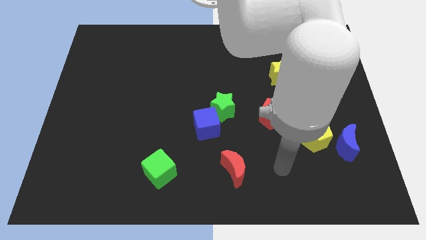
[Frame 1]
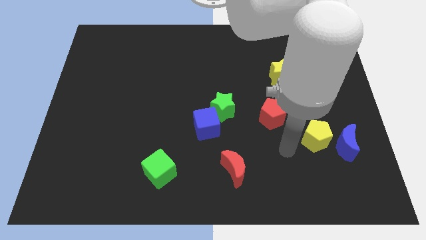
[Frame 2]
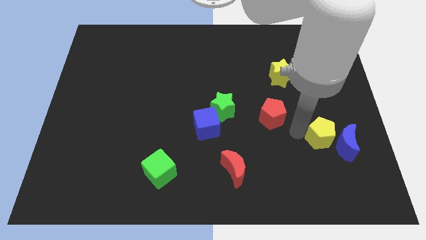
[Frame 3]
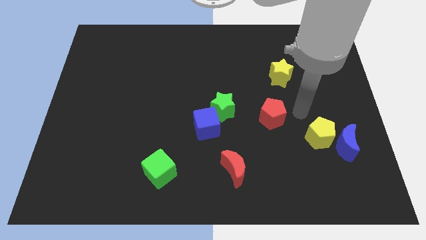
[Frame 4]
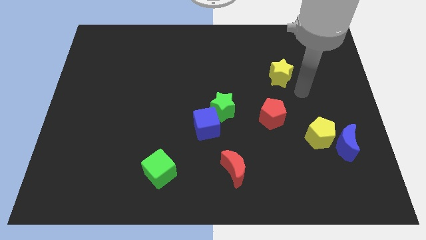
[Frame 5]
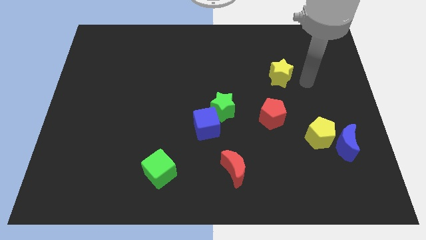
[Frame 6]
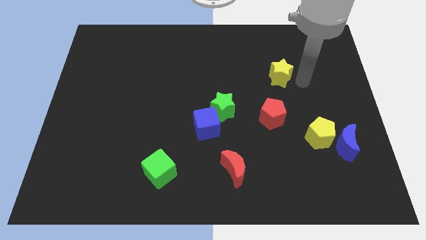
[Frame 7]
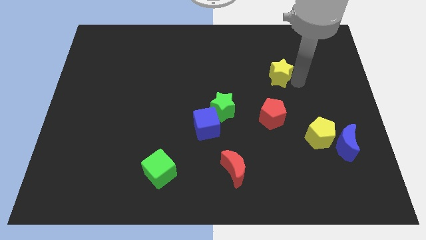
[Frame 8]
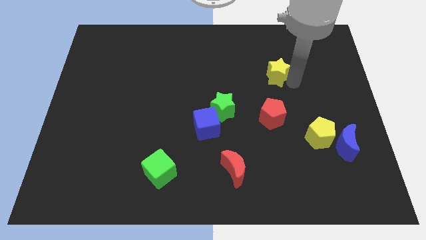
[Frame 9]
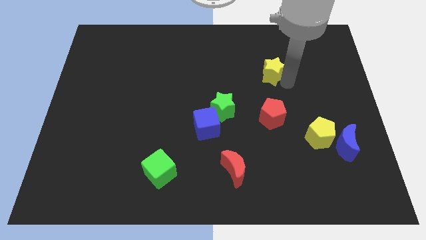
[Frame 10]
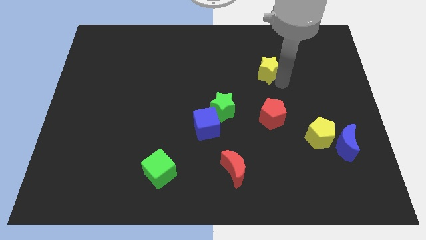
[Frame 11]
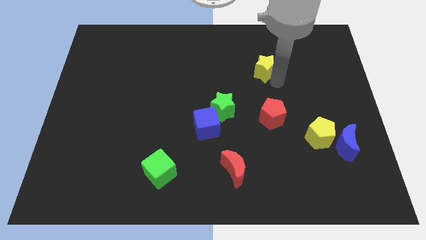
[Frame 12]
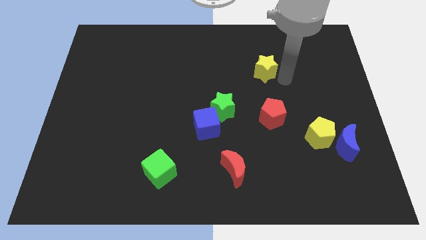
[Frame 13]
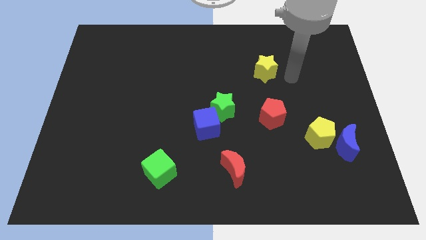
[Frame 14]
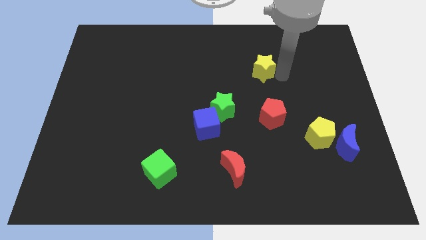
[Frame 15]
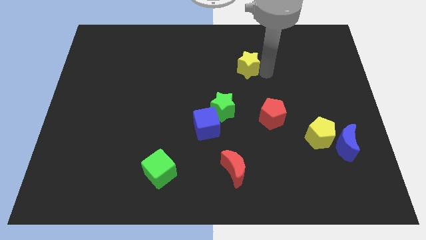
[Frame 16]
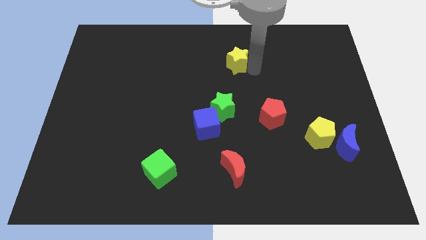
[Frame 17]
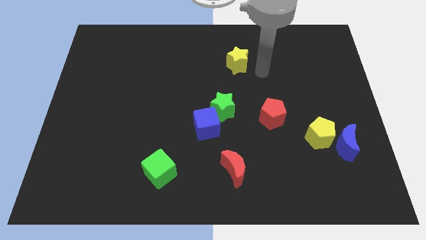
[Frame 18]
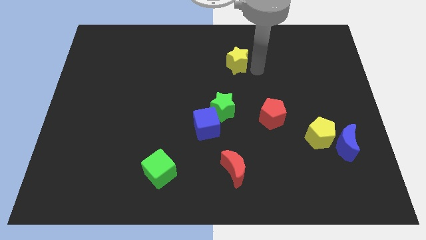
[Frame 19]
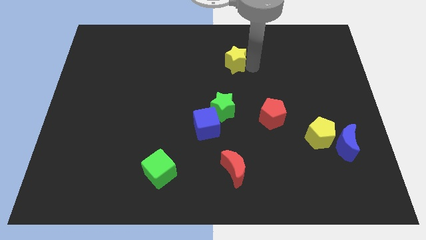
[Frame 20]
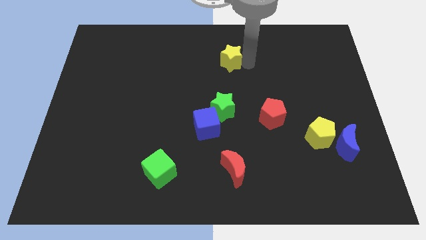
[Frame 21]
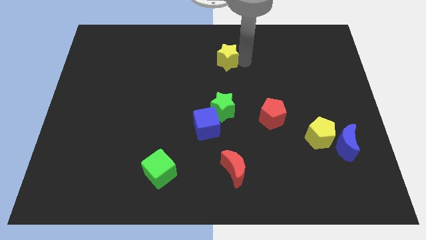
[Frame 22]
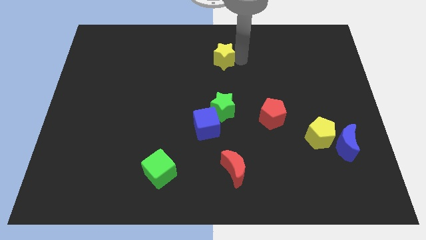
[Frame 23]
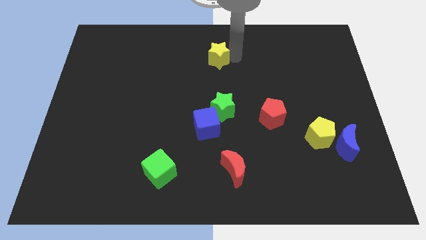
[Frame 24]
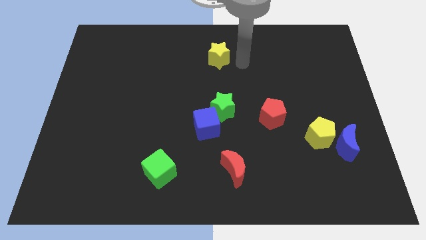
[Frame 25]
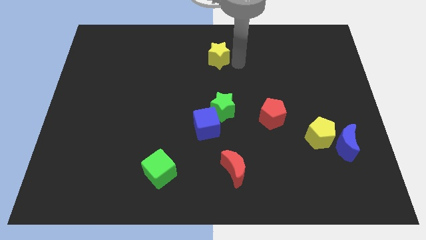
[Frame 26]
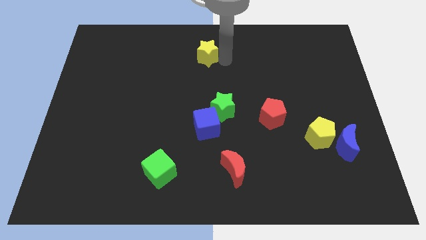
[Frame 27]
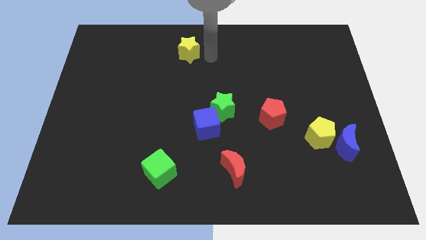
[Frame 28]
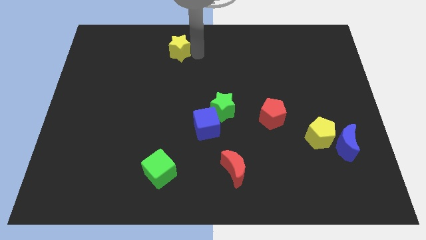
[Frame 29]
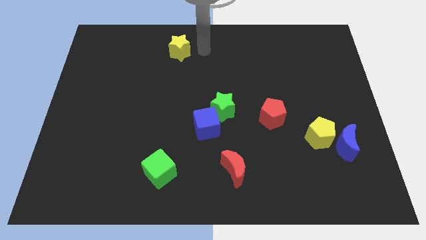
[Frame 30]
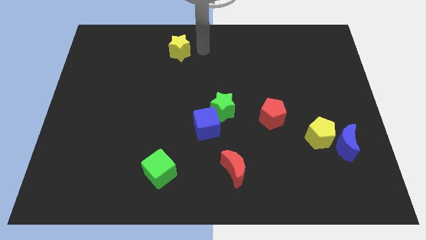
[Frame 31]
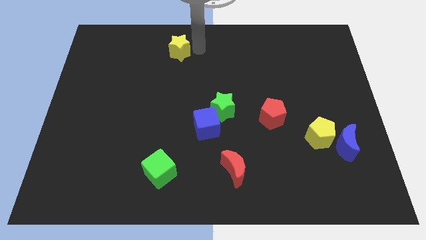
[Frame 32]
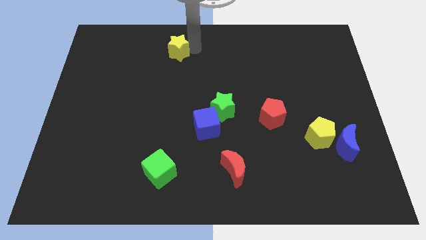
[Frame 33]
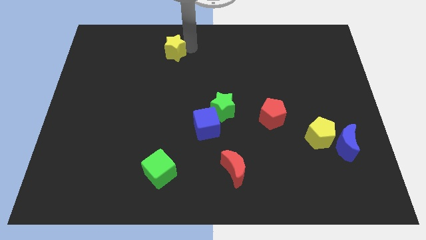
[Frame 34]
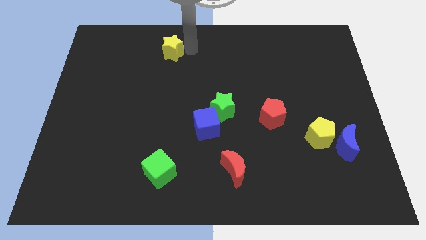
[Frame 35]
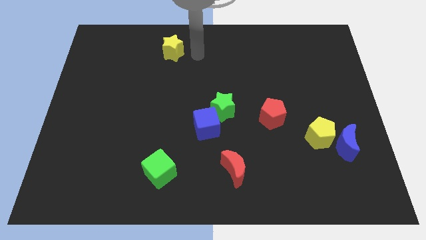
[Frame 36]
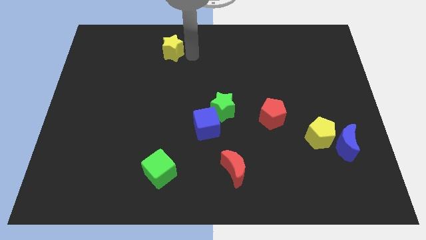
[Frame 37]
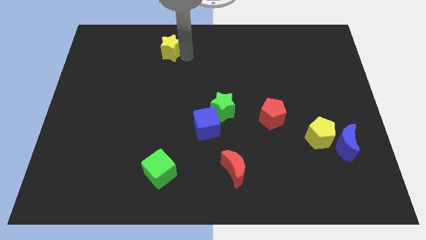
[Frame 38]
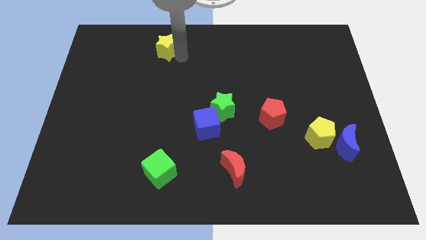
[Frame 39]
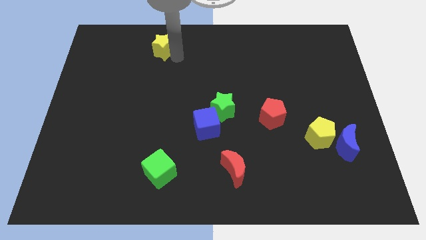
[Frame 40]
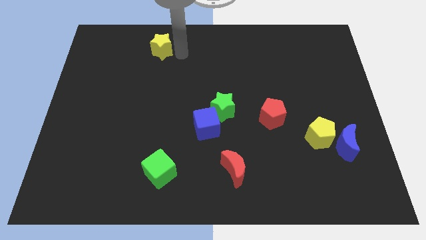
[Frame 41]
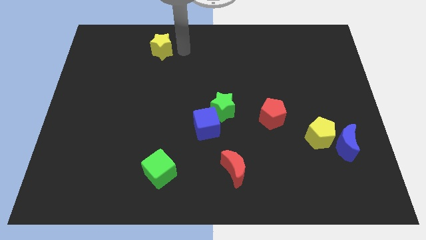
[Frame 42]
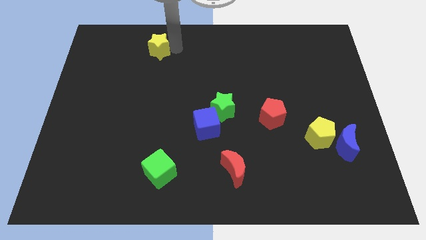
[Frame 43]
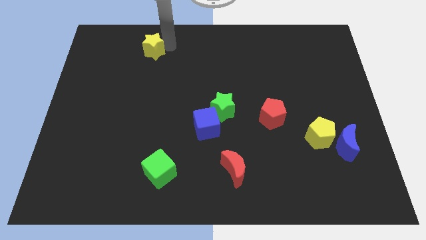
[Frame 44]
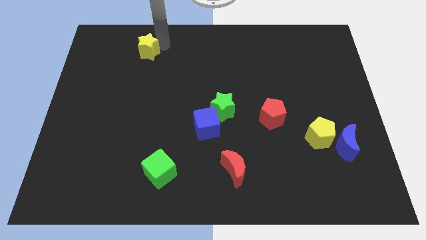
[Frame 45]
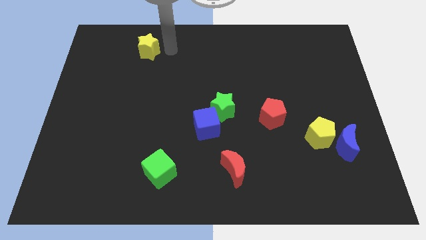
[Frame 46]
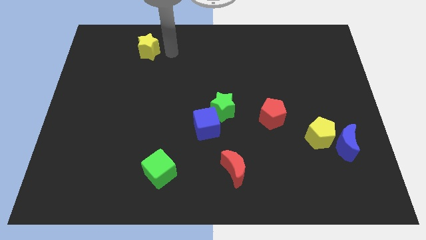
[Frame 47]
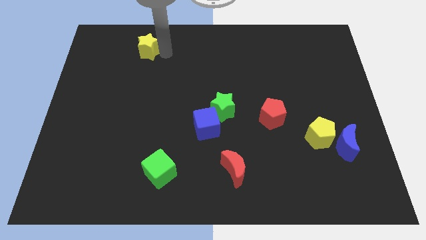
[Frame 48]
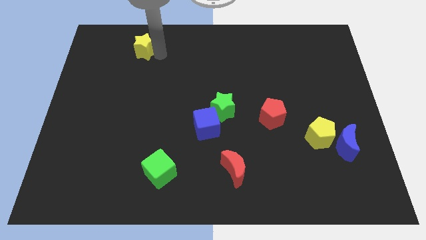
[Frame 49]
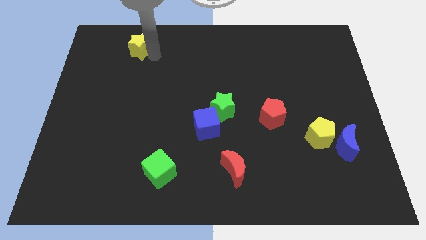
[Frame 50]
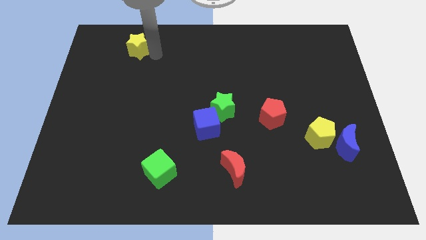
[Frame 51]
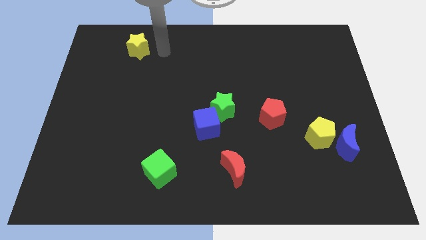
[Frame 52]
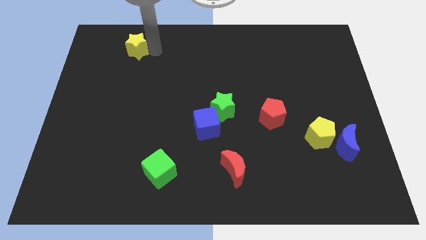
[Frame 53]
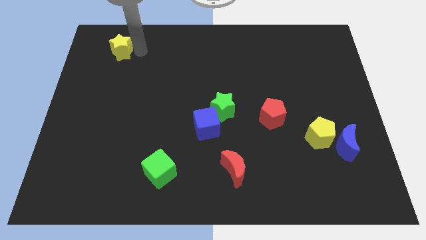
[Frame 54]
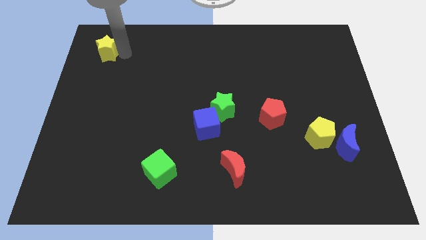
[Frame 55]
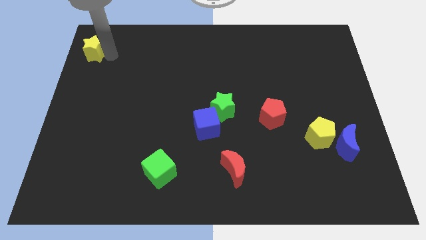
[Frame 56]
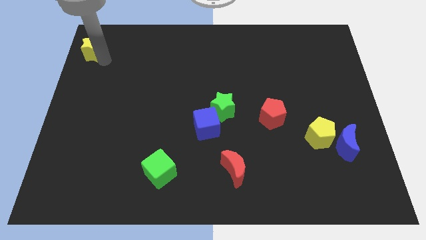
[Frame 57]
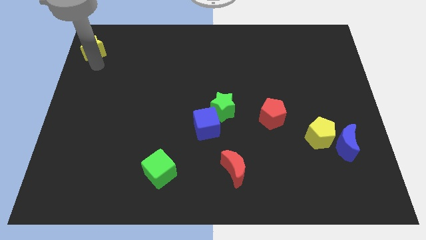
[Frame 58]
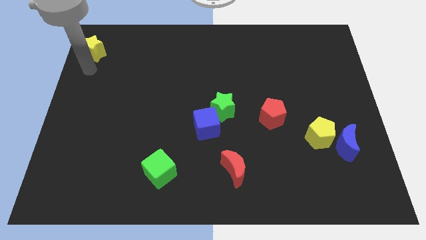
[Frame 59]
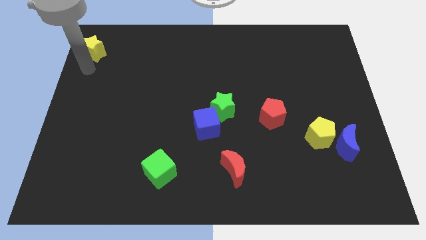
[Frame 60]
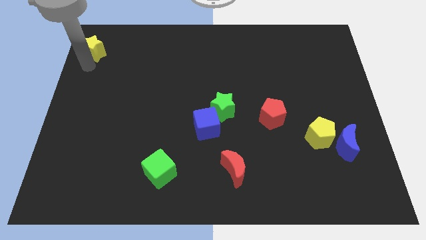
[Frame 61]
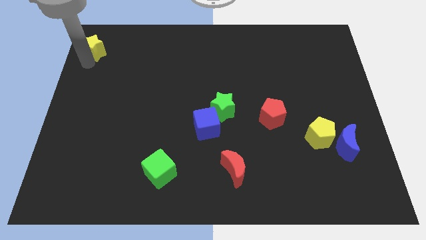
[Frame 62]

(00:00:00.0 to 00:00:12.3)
slide the yellow star to the top left

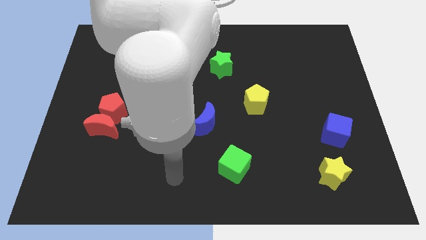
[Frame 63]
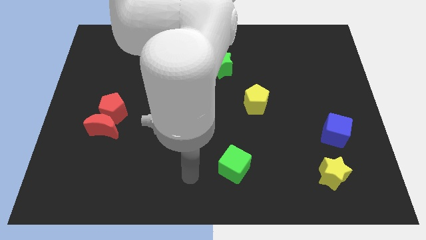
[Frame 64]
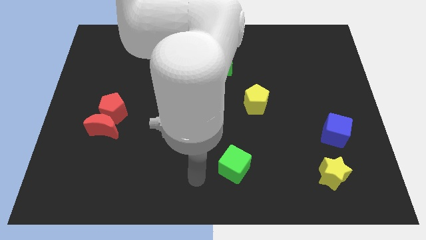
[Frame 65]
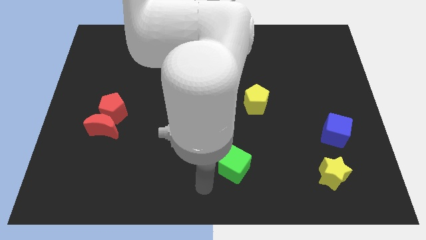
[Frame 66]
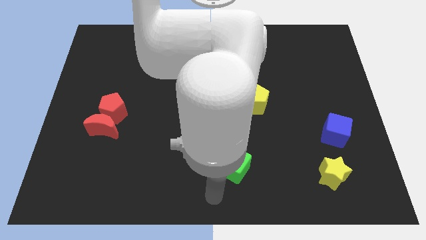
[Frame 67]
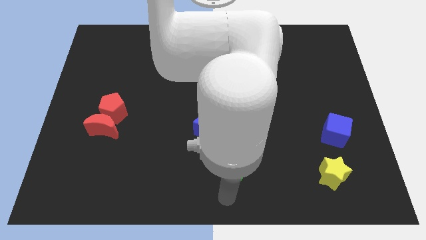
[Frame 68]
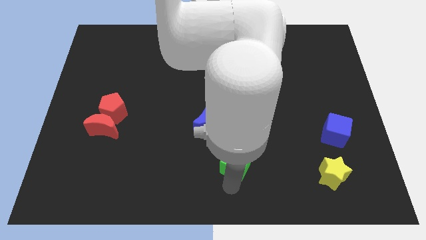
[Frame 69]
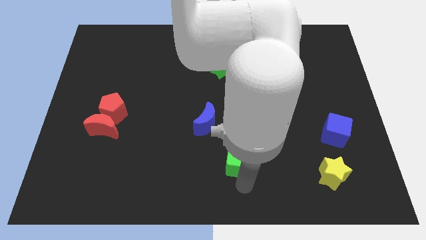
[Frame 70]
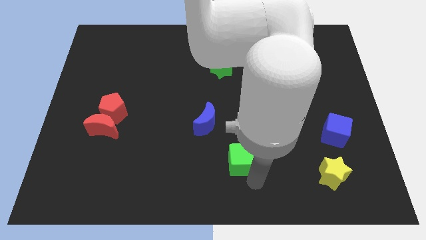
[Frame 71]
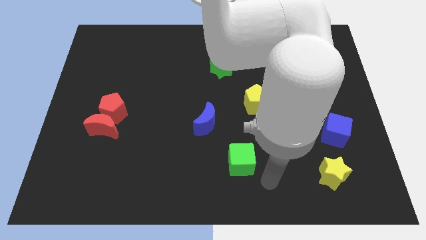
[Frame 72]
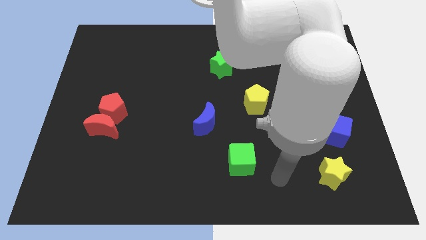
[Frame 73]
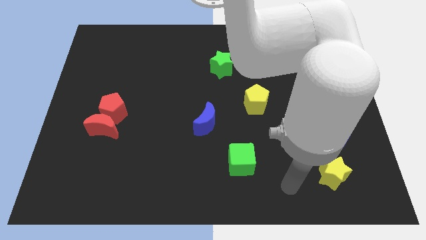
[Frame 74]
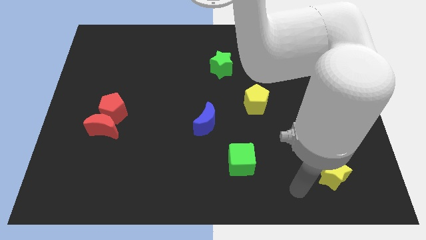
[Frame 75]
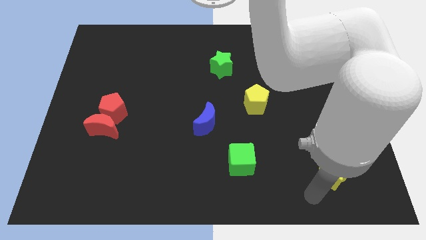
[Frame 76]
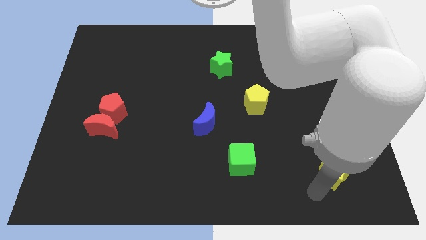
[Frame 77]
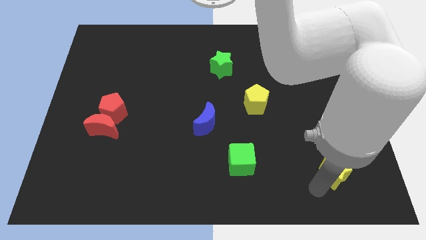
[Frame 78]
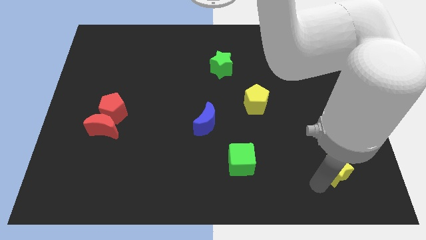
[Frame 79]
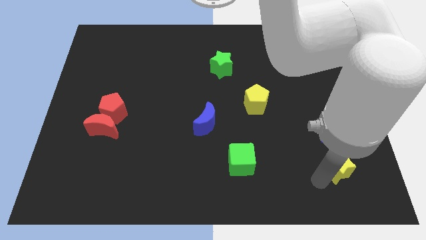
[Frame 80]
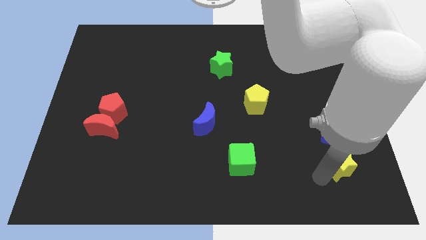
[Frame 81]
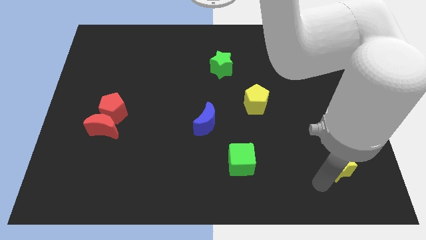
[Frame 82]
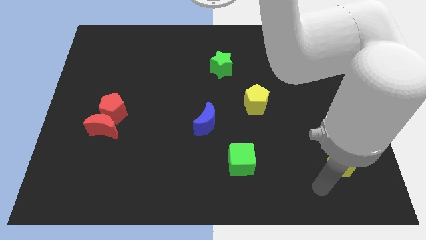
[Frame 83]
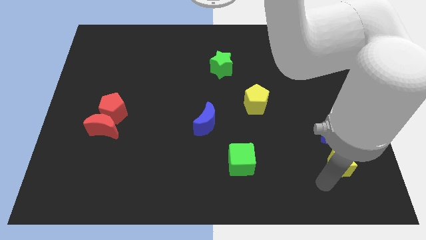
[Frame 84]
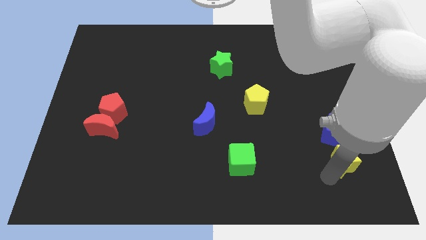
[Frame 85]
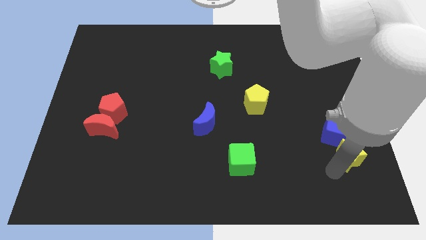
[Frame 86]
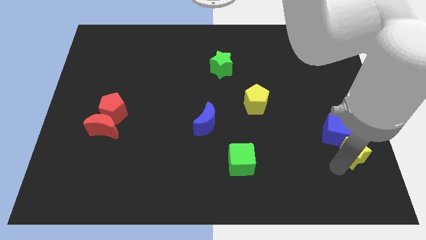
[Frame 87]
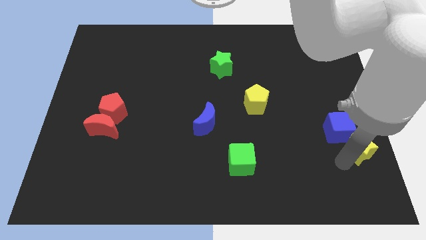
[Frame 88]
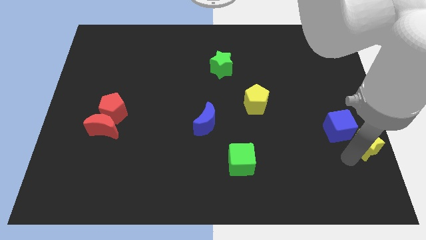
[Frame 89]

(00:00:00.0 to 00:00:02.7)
slide the yellow star to the right side
